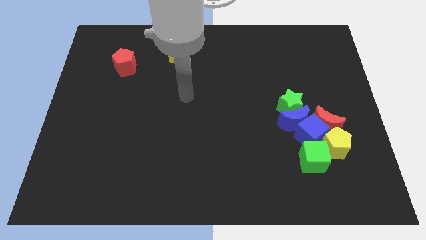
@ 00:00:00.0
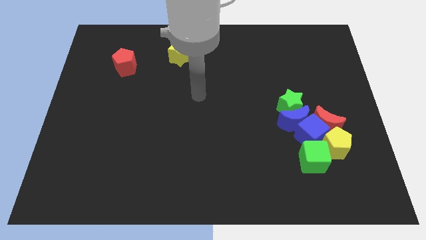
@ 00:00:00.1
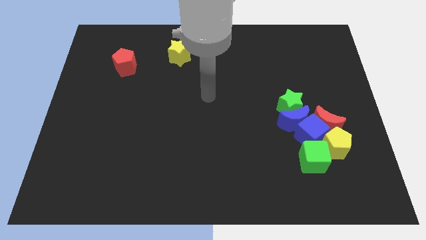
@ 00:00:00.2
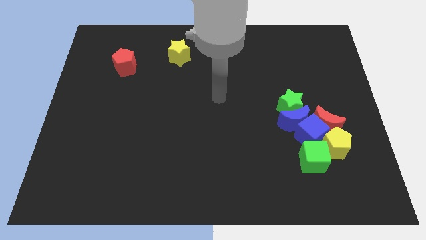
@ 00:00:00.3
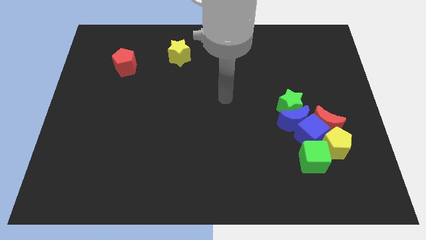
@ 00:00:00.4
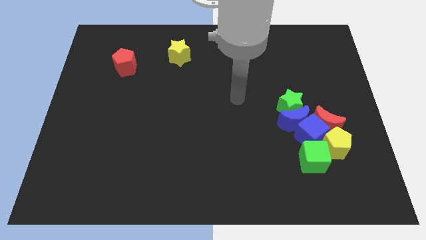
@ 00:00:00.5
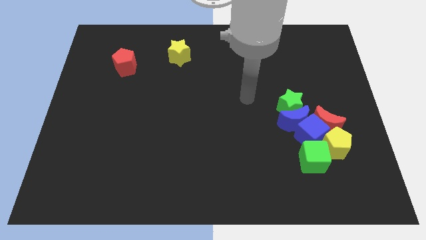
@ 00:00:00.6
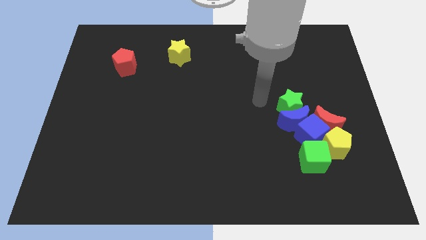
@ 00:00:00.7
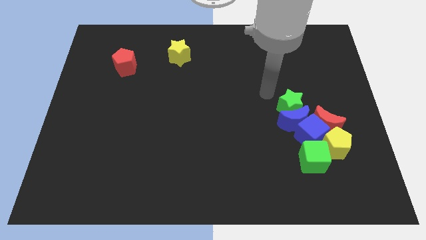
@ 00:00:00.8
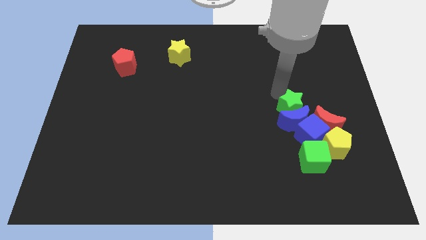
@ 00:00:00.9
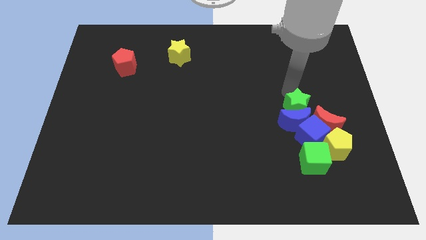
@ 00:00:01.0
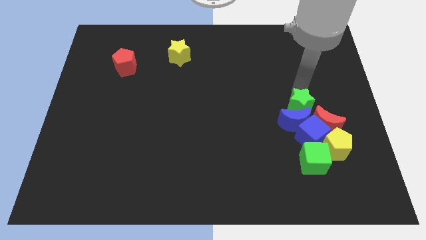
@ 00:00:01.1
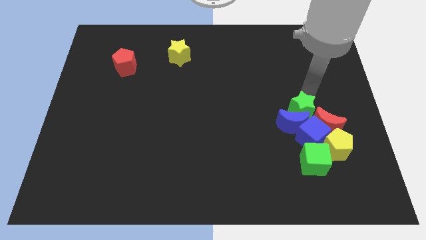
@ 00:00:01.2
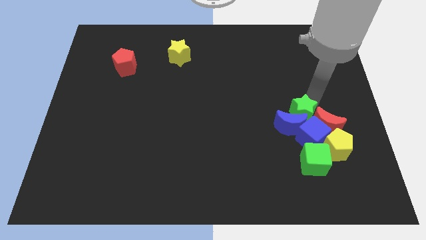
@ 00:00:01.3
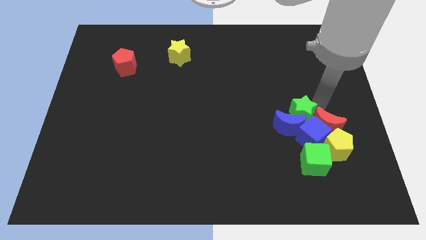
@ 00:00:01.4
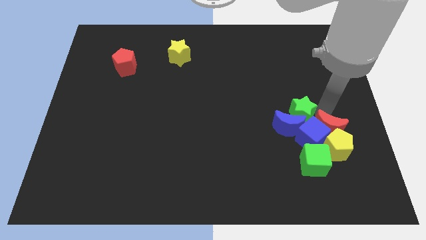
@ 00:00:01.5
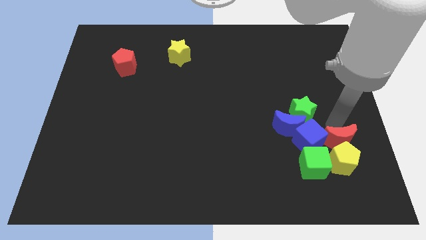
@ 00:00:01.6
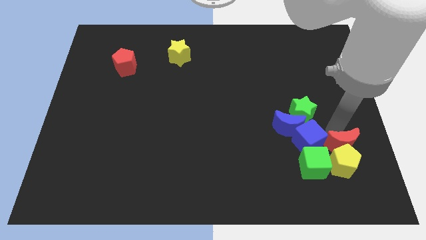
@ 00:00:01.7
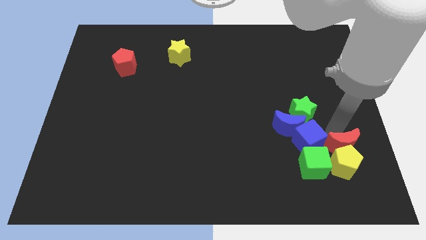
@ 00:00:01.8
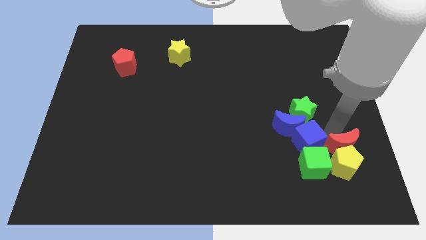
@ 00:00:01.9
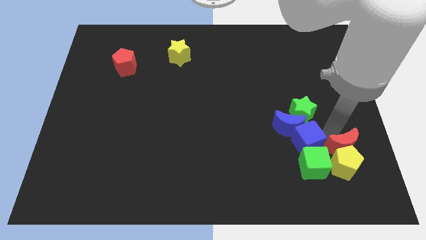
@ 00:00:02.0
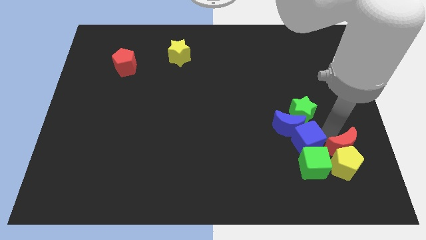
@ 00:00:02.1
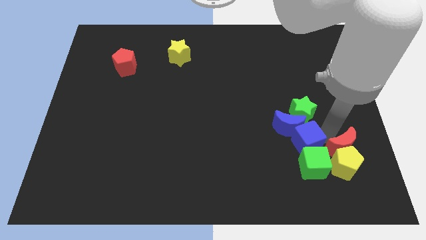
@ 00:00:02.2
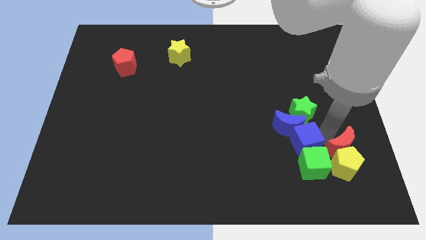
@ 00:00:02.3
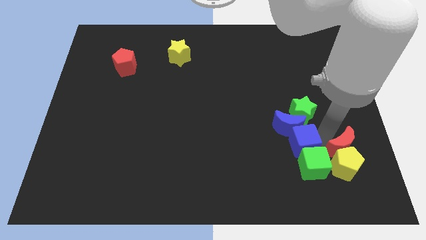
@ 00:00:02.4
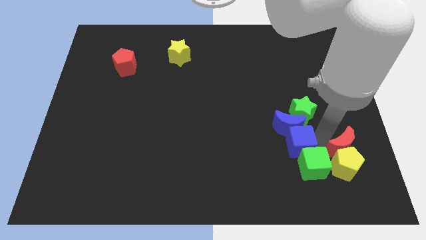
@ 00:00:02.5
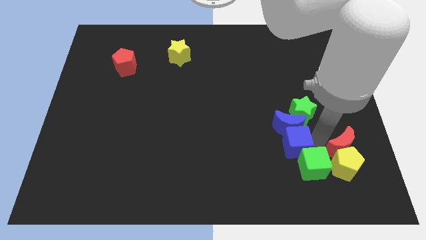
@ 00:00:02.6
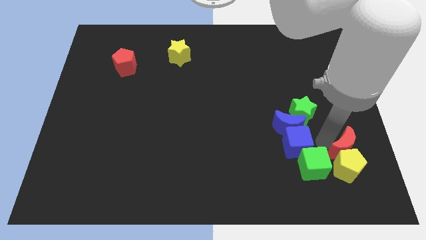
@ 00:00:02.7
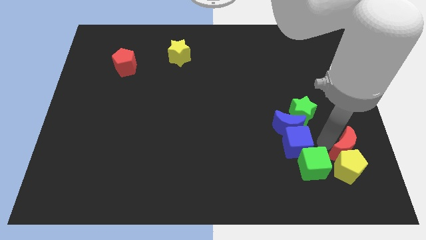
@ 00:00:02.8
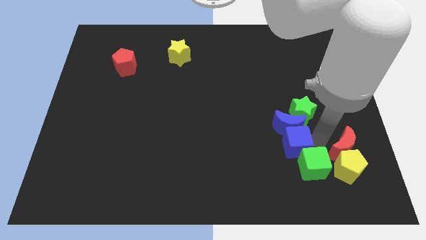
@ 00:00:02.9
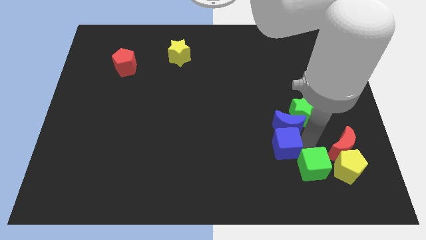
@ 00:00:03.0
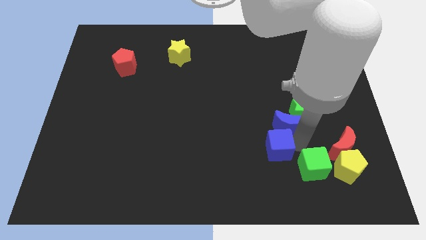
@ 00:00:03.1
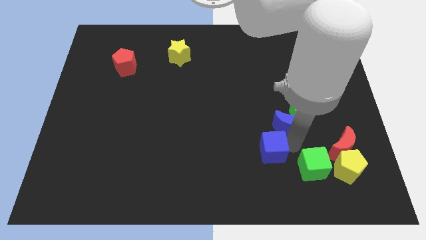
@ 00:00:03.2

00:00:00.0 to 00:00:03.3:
pull the blue cube apart from the group of blocks

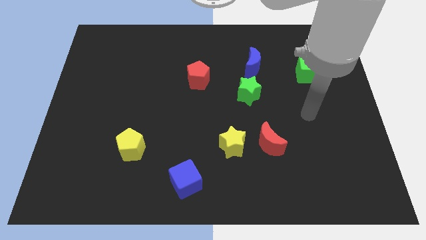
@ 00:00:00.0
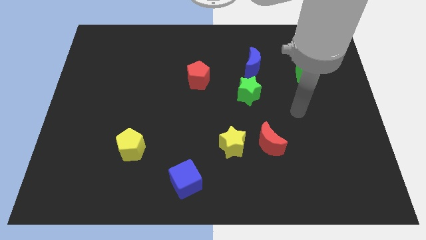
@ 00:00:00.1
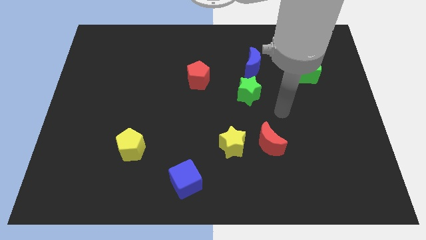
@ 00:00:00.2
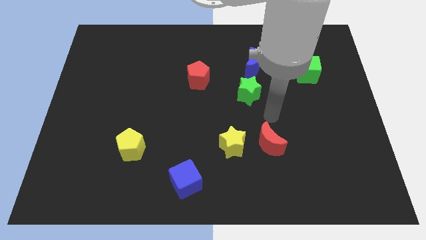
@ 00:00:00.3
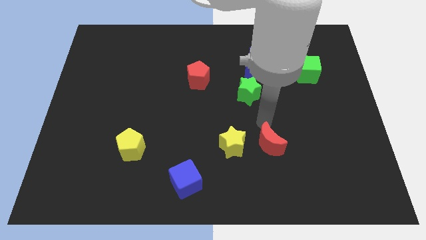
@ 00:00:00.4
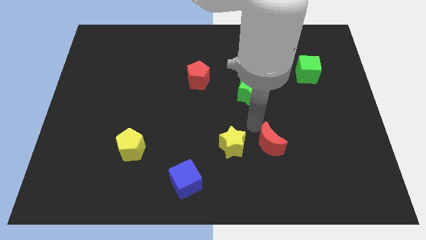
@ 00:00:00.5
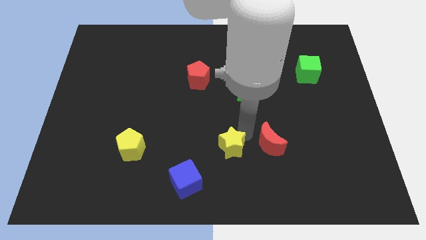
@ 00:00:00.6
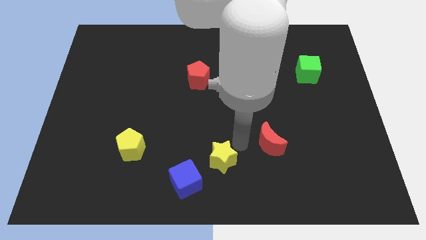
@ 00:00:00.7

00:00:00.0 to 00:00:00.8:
separate the red moon from the yellow star

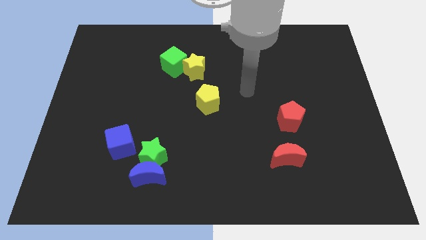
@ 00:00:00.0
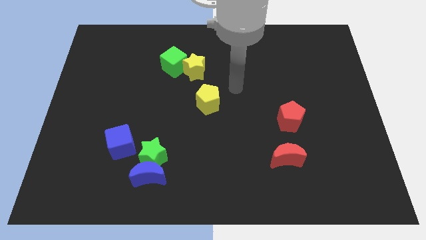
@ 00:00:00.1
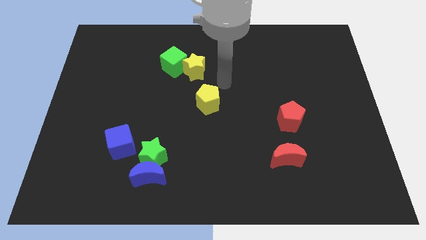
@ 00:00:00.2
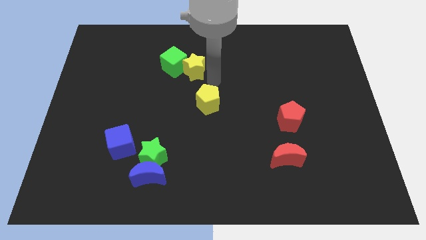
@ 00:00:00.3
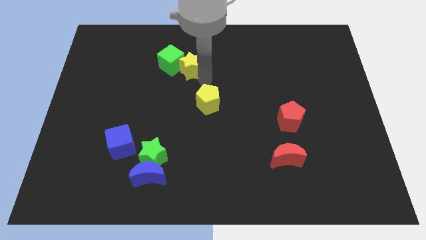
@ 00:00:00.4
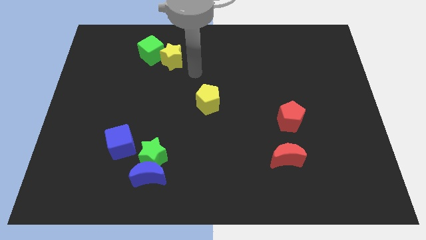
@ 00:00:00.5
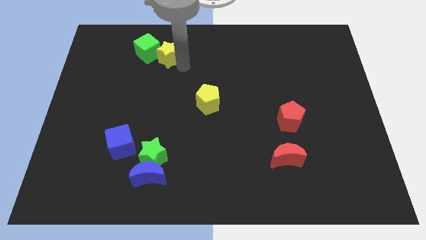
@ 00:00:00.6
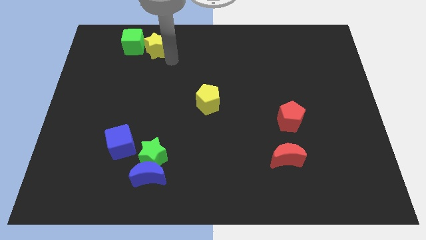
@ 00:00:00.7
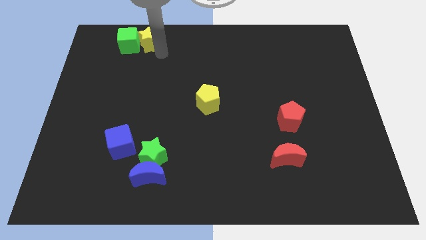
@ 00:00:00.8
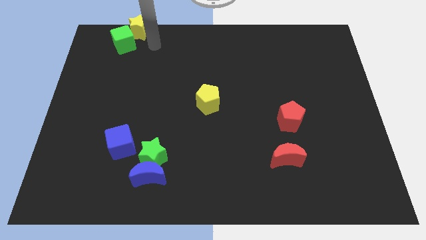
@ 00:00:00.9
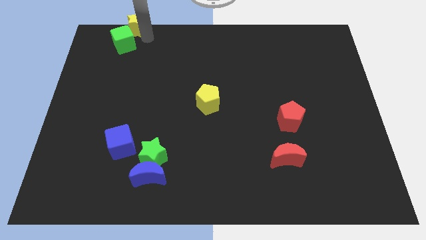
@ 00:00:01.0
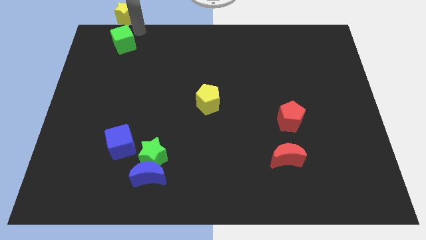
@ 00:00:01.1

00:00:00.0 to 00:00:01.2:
separate the green cube from the yellow star

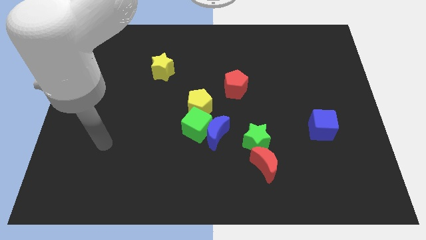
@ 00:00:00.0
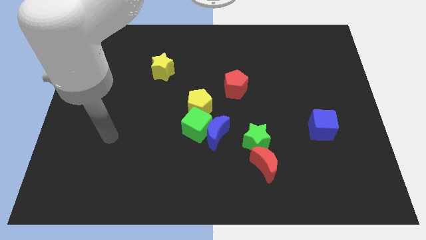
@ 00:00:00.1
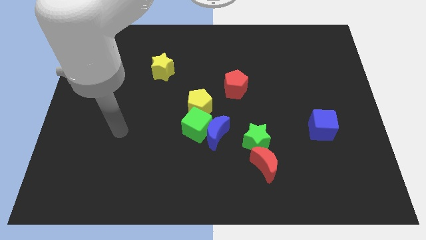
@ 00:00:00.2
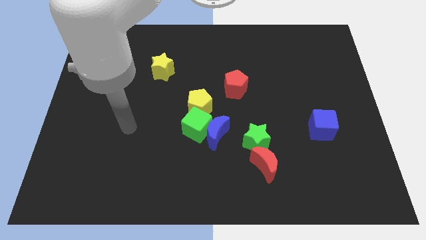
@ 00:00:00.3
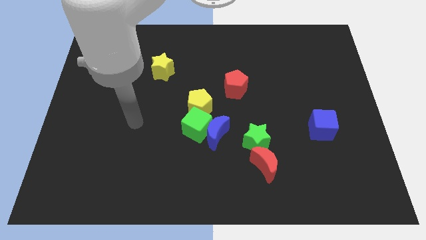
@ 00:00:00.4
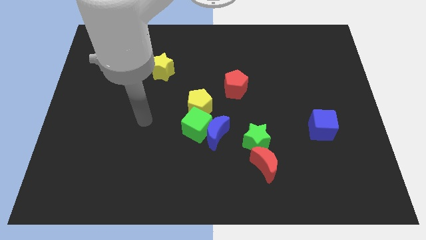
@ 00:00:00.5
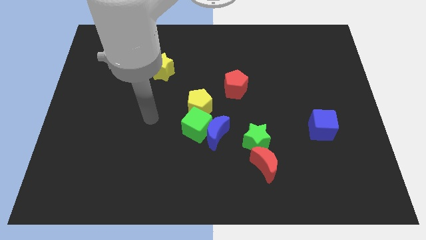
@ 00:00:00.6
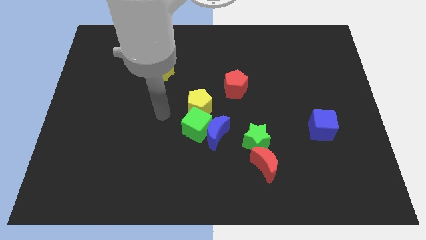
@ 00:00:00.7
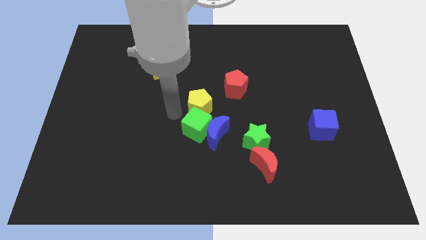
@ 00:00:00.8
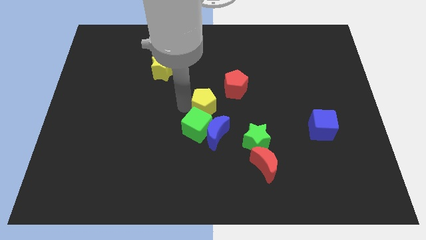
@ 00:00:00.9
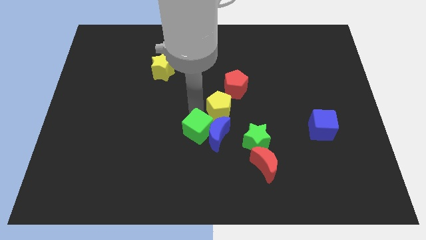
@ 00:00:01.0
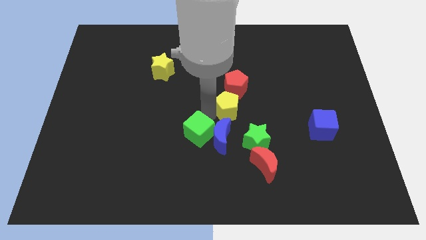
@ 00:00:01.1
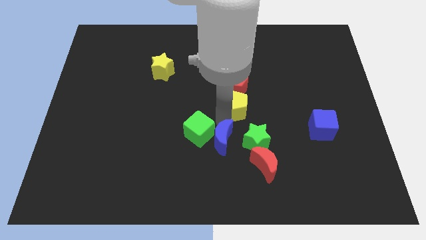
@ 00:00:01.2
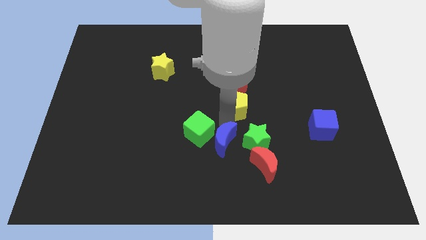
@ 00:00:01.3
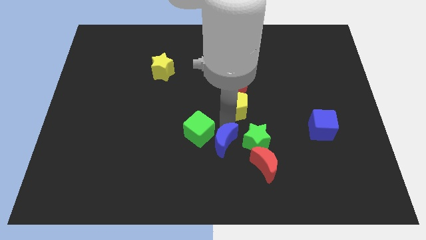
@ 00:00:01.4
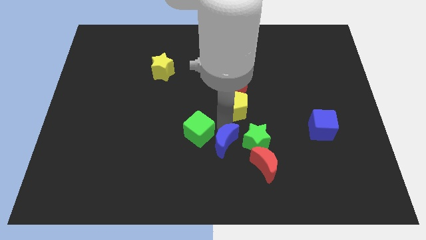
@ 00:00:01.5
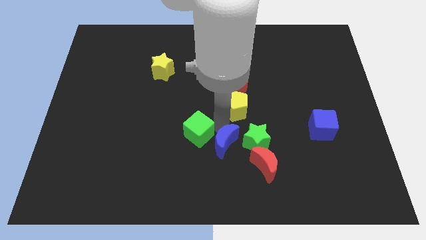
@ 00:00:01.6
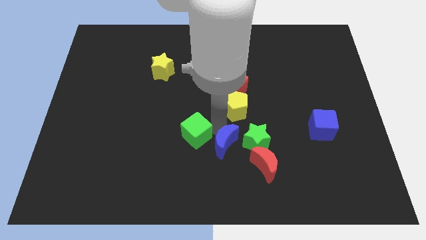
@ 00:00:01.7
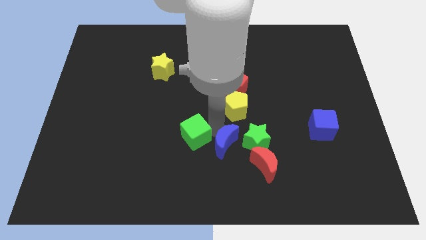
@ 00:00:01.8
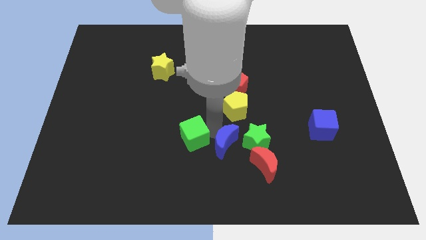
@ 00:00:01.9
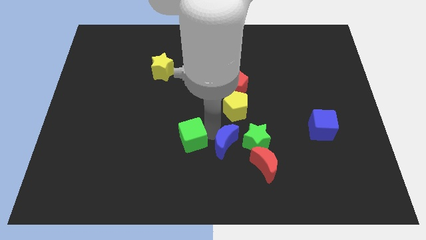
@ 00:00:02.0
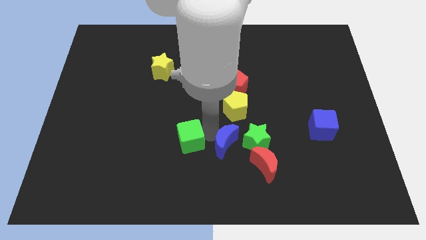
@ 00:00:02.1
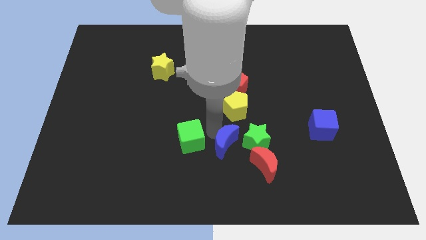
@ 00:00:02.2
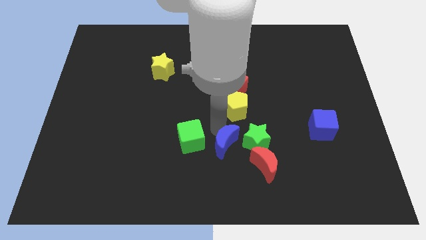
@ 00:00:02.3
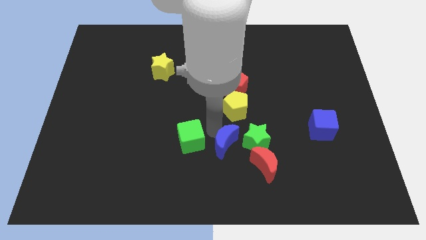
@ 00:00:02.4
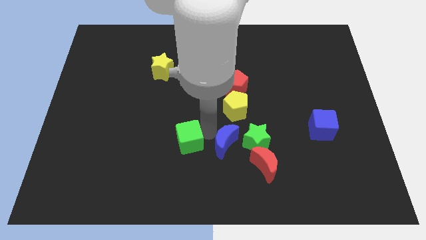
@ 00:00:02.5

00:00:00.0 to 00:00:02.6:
pull the green cube apart from the blue moon and yellow pentagon

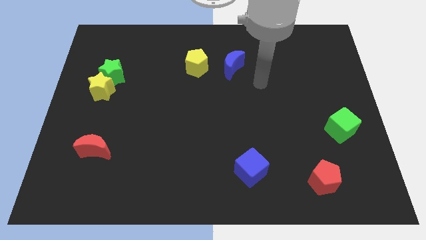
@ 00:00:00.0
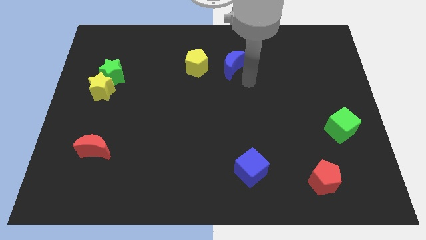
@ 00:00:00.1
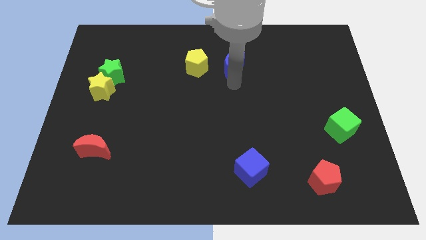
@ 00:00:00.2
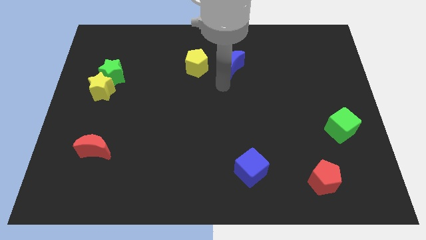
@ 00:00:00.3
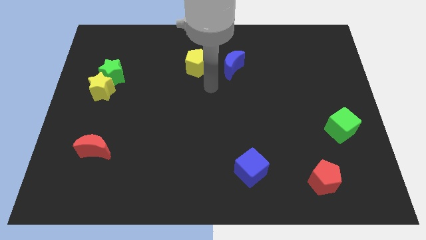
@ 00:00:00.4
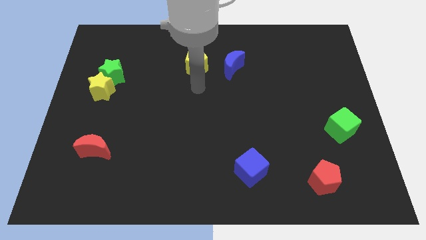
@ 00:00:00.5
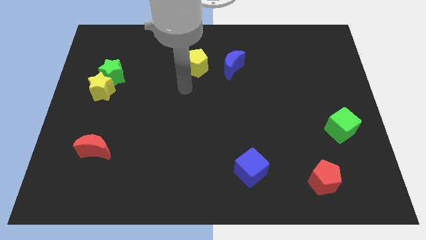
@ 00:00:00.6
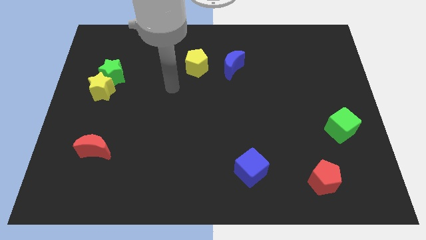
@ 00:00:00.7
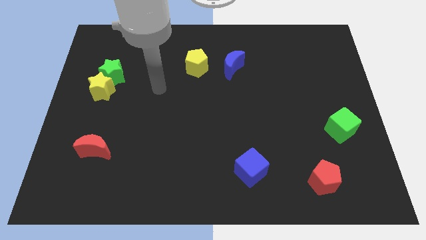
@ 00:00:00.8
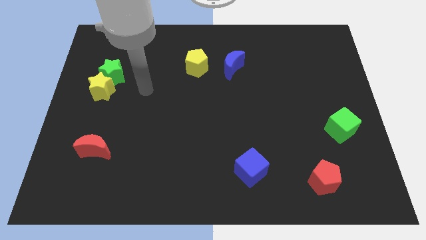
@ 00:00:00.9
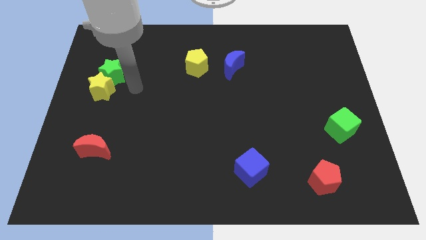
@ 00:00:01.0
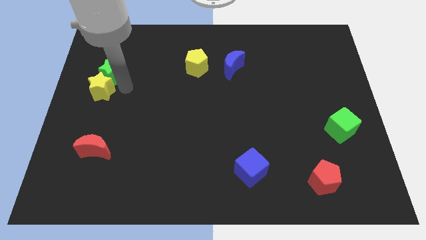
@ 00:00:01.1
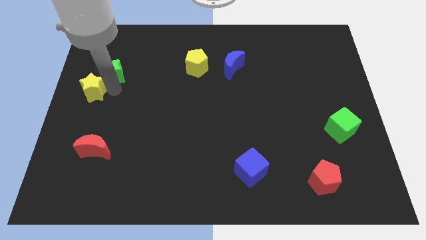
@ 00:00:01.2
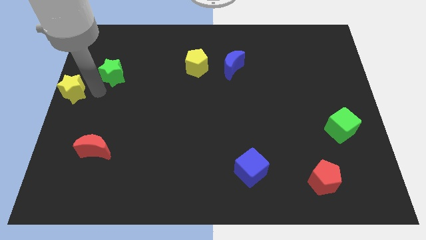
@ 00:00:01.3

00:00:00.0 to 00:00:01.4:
separate the green star from the yellow star
